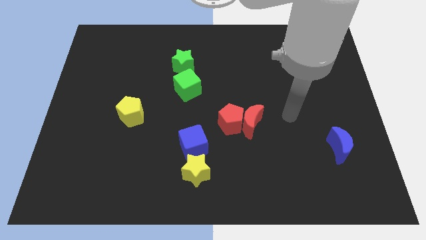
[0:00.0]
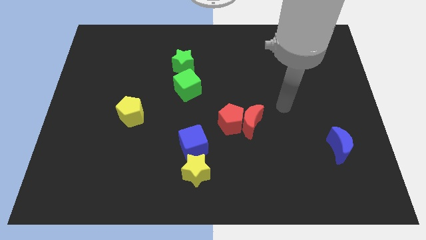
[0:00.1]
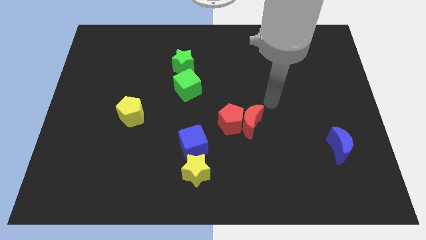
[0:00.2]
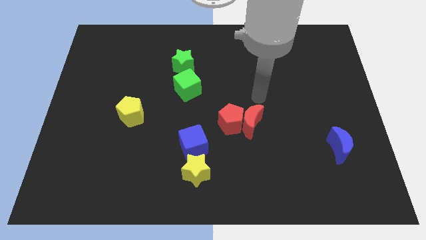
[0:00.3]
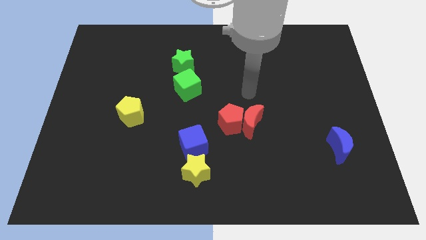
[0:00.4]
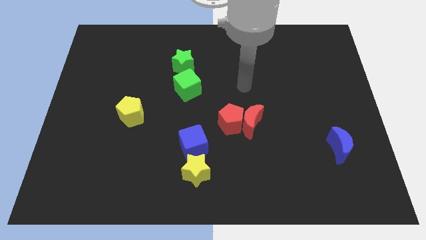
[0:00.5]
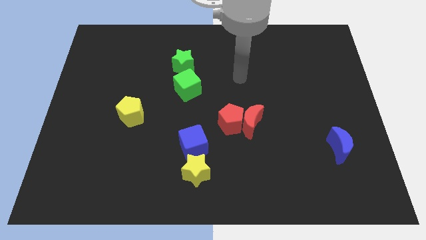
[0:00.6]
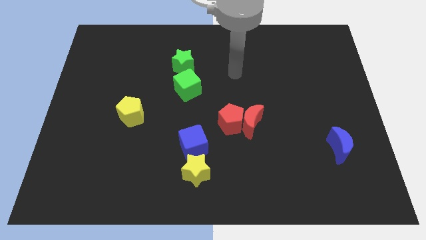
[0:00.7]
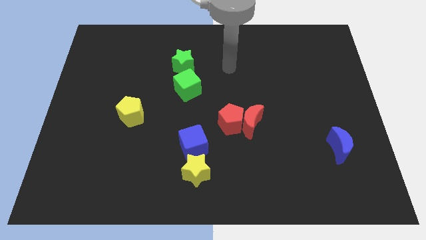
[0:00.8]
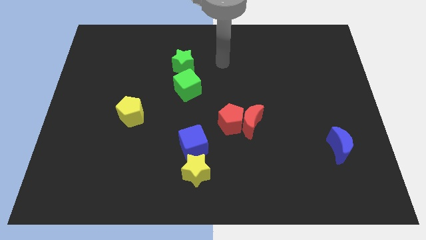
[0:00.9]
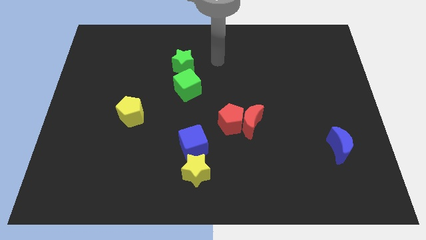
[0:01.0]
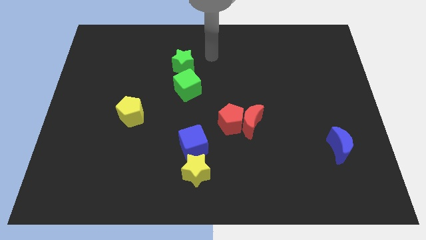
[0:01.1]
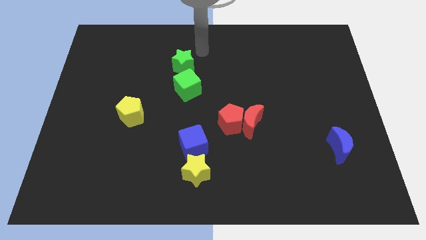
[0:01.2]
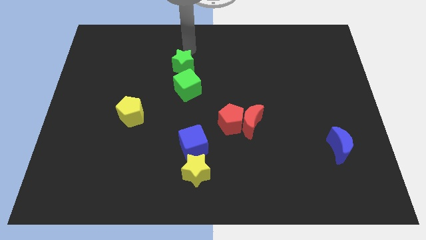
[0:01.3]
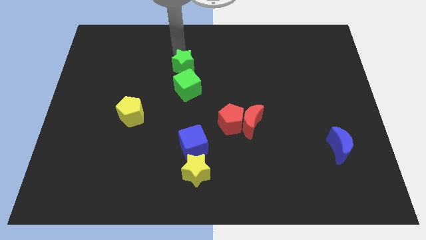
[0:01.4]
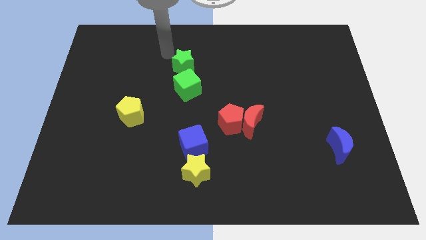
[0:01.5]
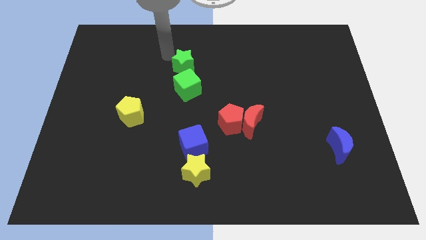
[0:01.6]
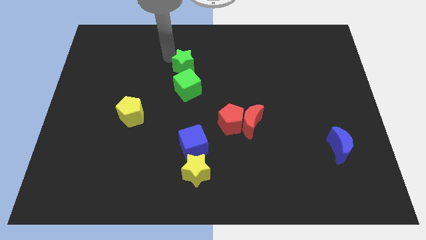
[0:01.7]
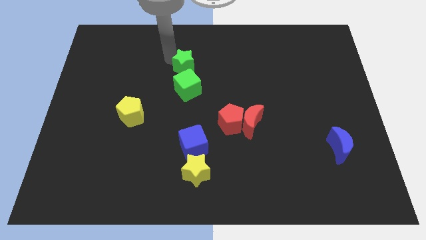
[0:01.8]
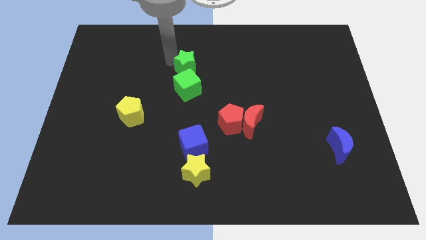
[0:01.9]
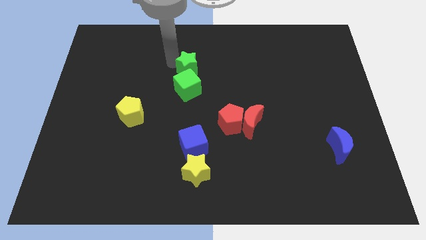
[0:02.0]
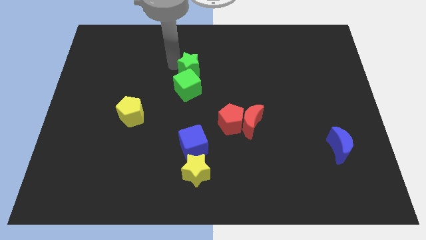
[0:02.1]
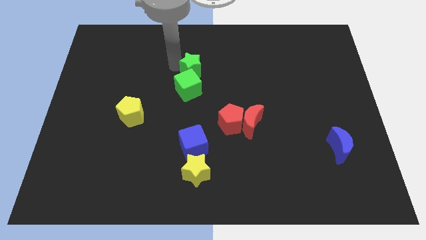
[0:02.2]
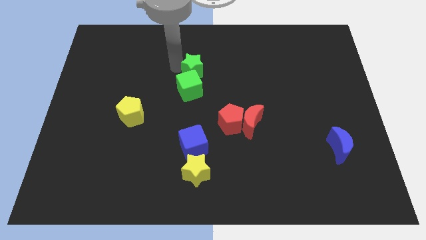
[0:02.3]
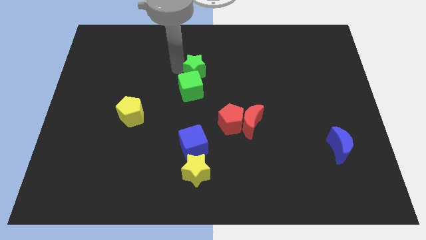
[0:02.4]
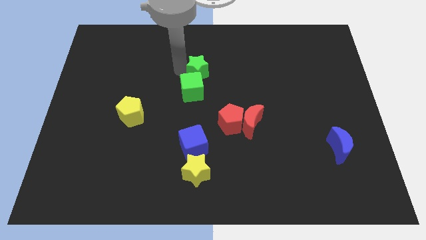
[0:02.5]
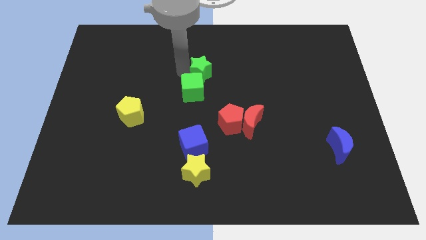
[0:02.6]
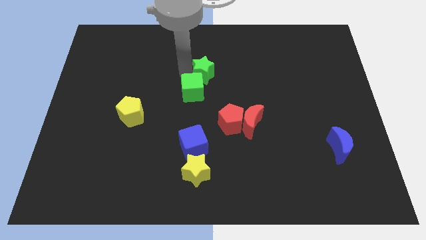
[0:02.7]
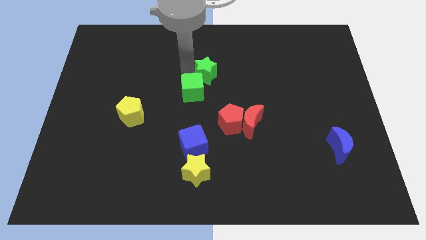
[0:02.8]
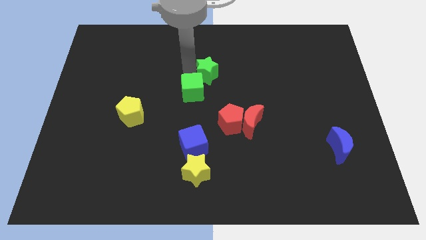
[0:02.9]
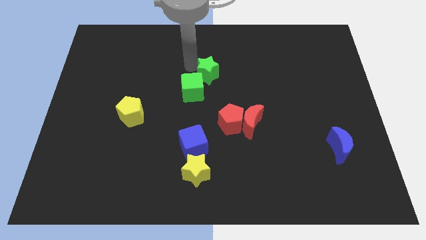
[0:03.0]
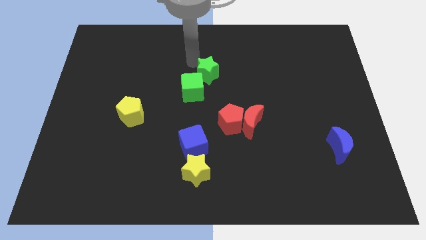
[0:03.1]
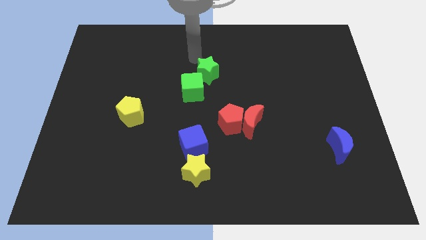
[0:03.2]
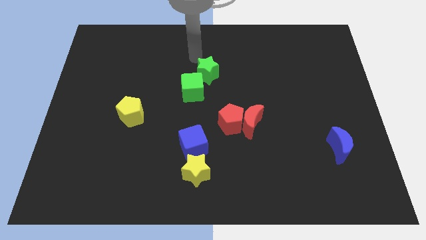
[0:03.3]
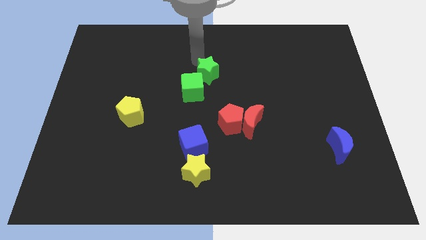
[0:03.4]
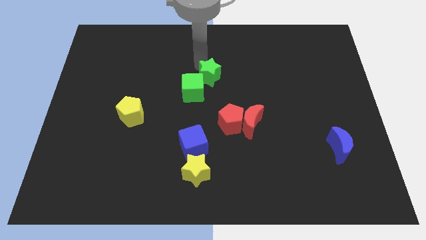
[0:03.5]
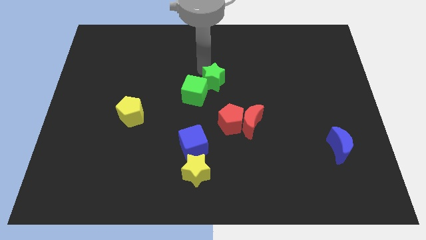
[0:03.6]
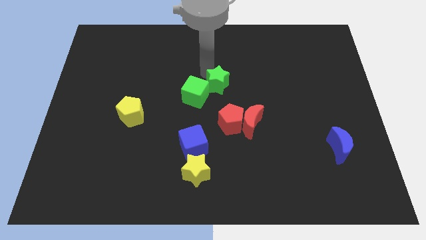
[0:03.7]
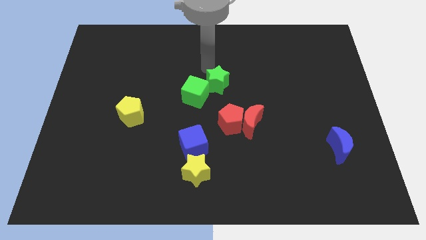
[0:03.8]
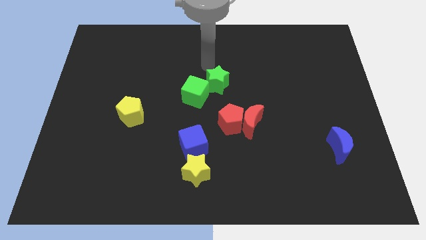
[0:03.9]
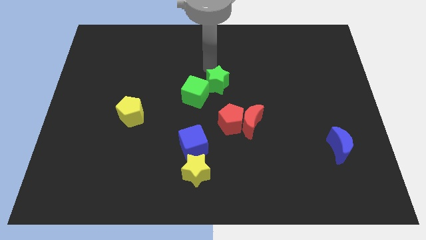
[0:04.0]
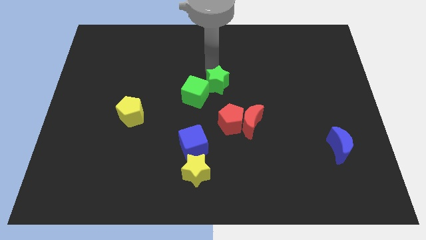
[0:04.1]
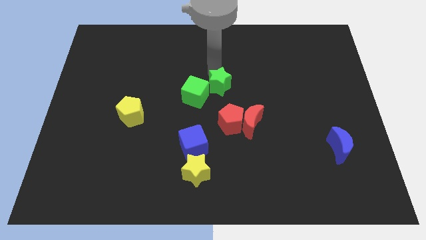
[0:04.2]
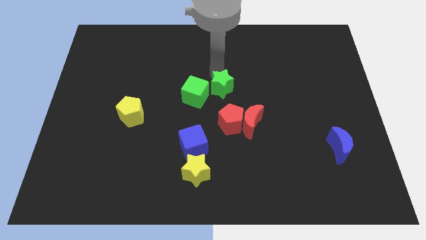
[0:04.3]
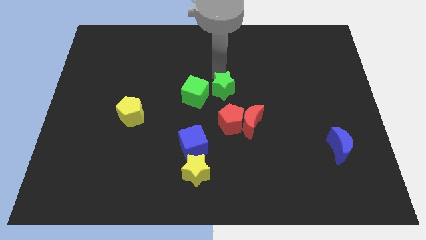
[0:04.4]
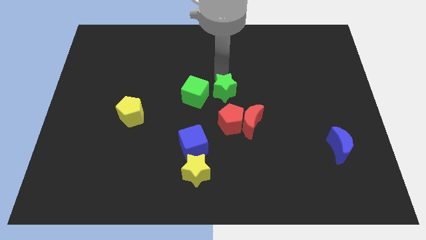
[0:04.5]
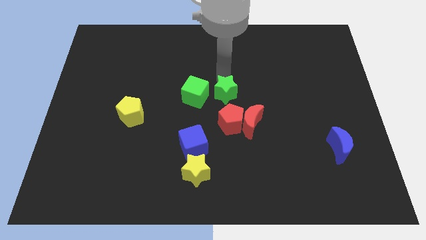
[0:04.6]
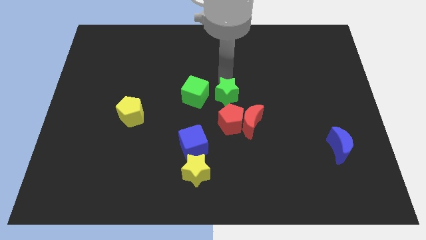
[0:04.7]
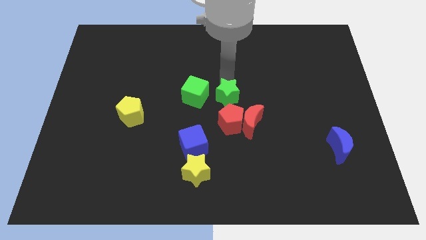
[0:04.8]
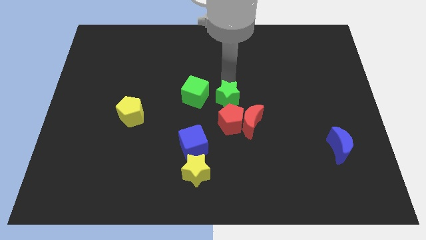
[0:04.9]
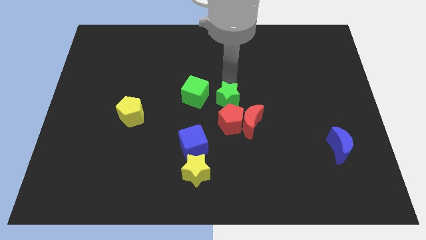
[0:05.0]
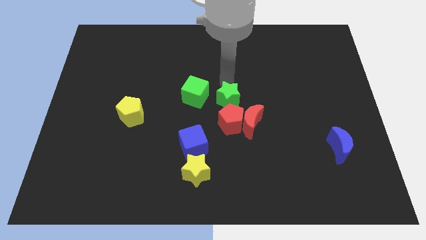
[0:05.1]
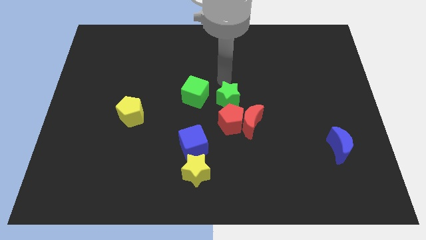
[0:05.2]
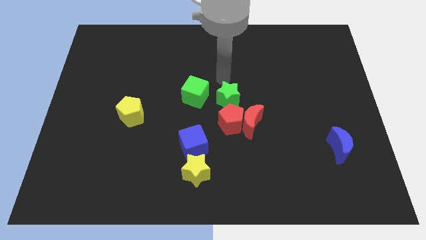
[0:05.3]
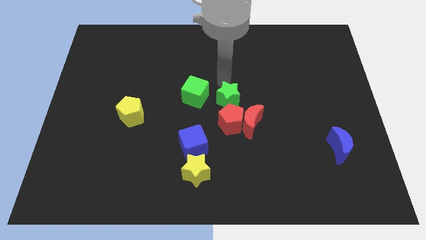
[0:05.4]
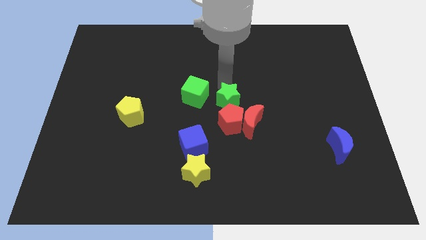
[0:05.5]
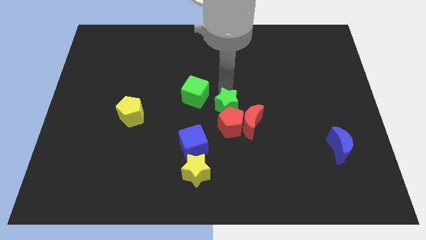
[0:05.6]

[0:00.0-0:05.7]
slide the green star to the red pentagon

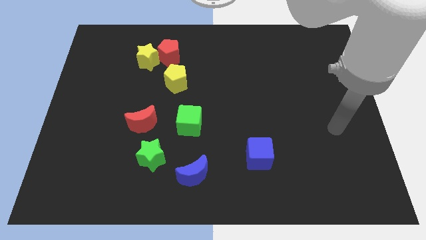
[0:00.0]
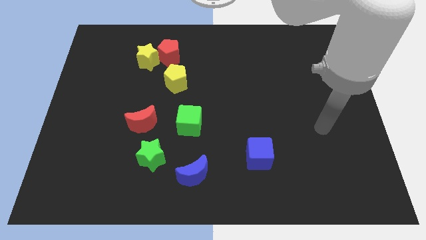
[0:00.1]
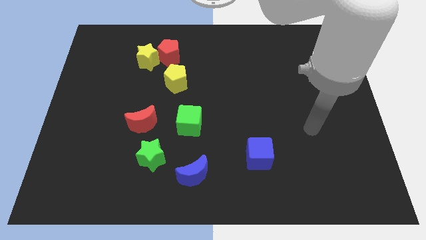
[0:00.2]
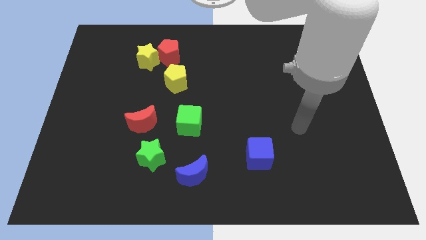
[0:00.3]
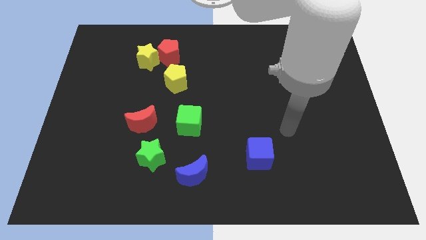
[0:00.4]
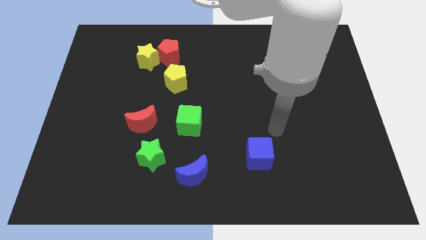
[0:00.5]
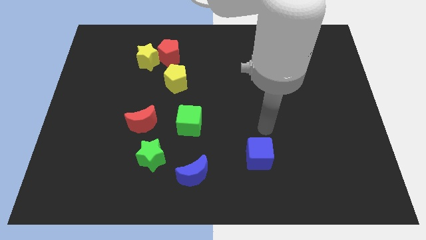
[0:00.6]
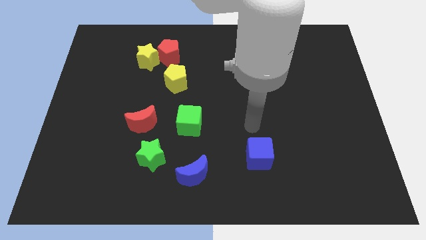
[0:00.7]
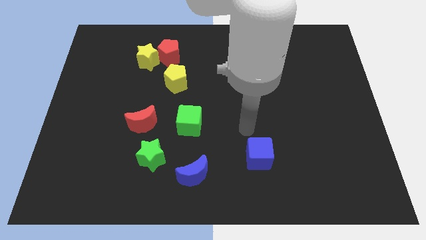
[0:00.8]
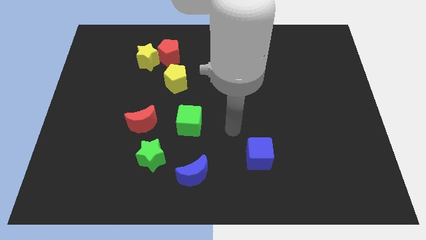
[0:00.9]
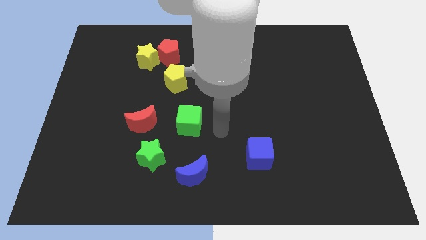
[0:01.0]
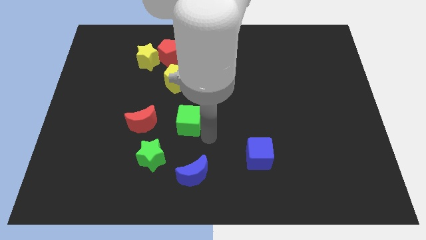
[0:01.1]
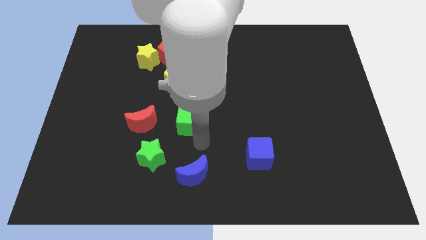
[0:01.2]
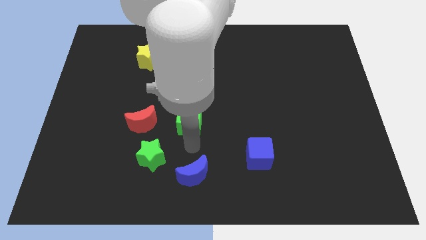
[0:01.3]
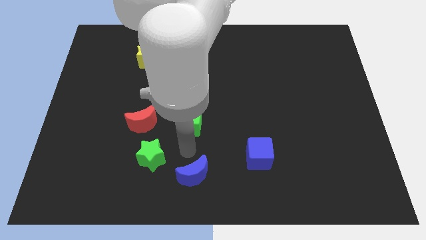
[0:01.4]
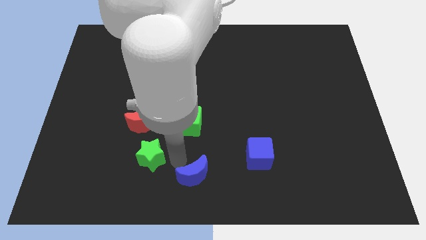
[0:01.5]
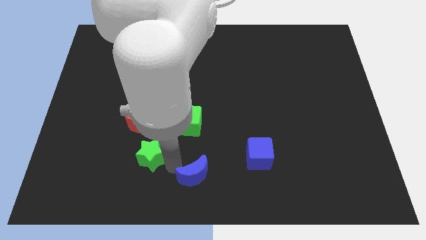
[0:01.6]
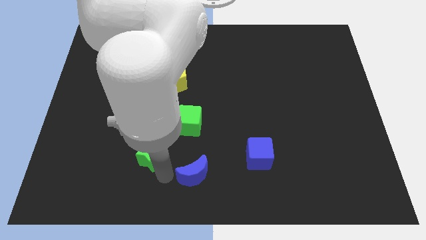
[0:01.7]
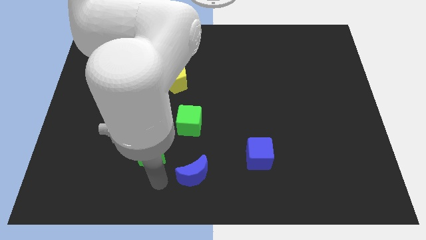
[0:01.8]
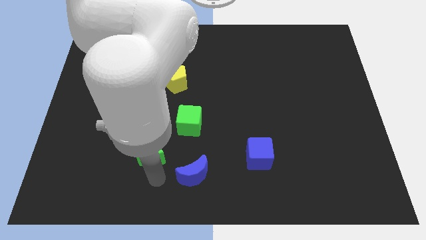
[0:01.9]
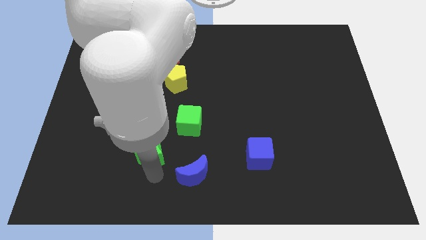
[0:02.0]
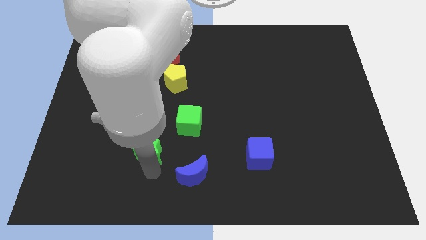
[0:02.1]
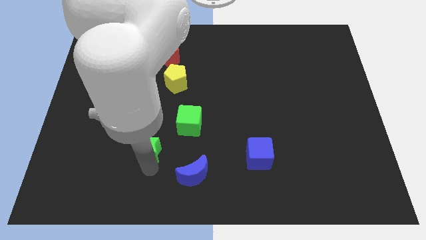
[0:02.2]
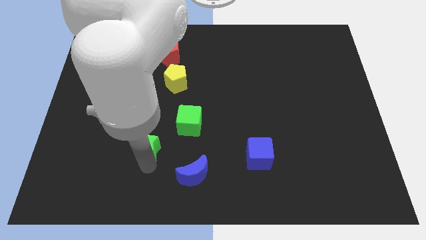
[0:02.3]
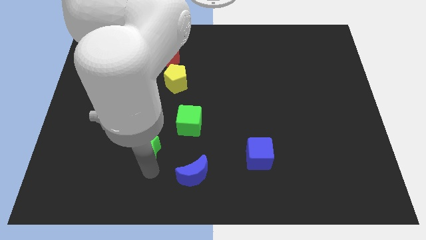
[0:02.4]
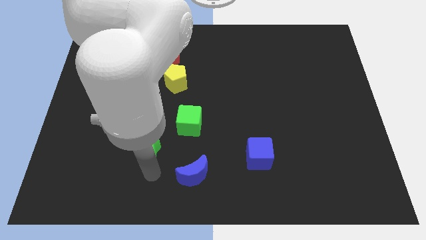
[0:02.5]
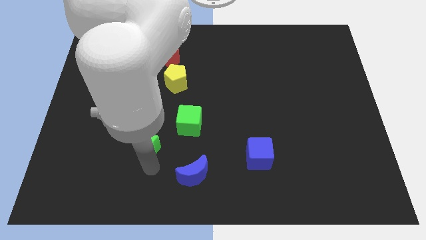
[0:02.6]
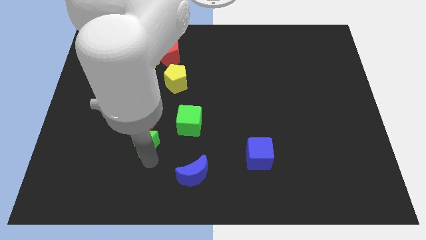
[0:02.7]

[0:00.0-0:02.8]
put the green star next to the red moon
